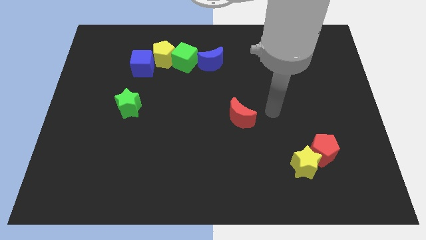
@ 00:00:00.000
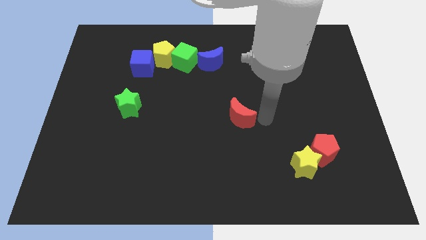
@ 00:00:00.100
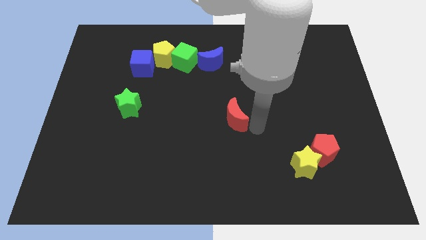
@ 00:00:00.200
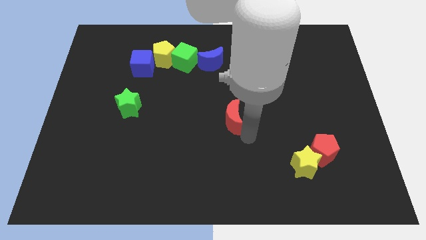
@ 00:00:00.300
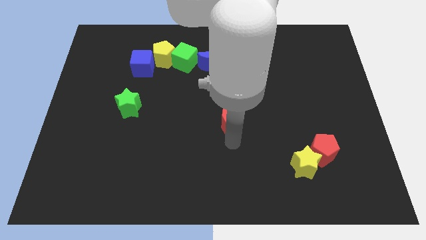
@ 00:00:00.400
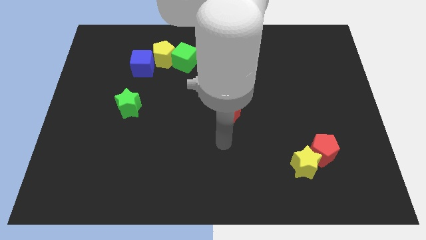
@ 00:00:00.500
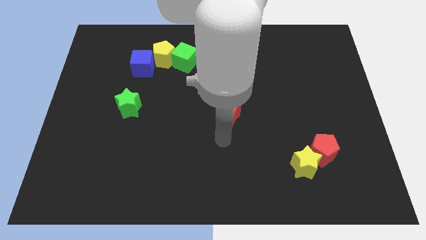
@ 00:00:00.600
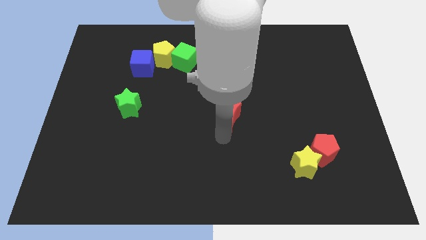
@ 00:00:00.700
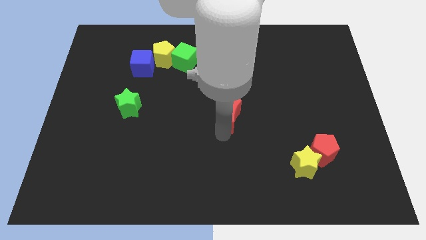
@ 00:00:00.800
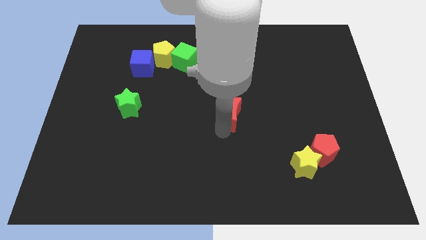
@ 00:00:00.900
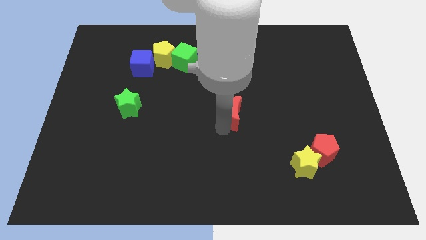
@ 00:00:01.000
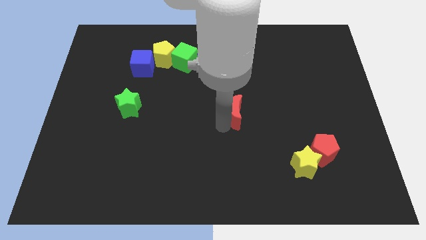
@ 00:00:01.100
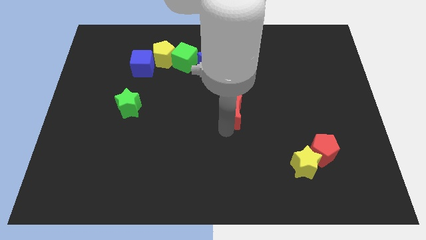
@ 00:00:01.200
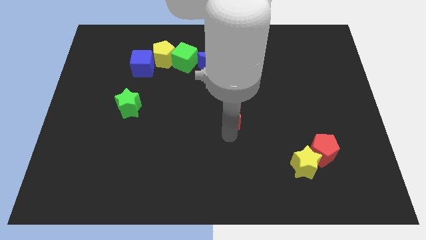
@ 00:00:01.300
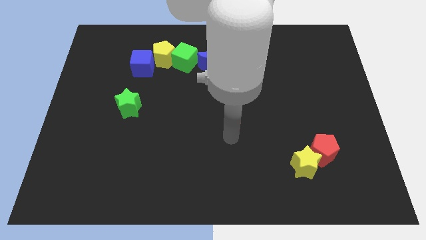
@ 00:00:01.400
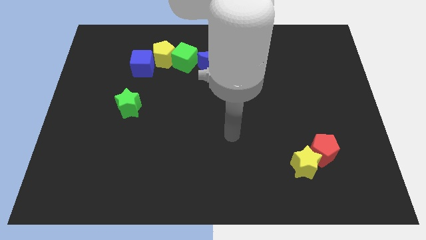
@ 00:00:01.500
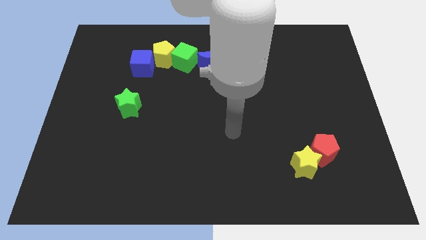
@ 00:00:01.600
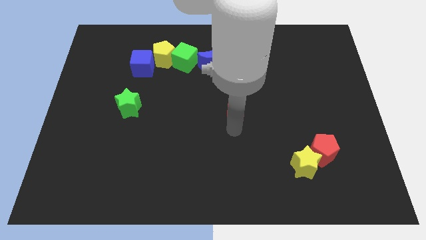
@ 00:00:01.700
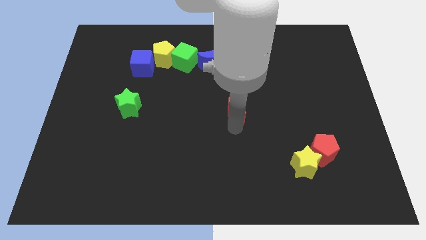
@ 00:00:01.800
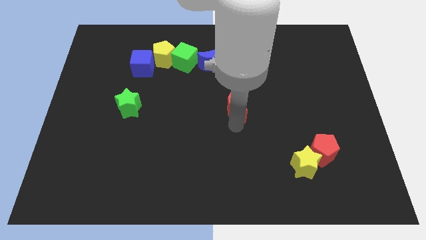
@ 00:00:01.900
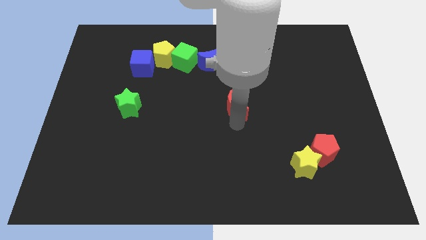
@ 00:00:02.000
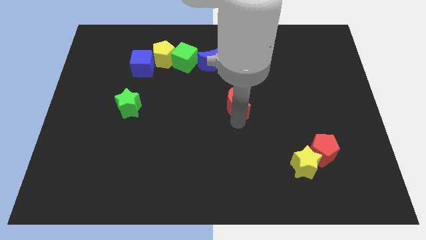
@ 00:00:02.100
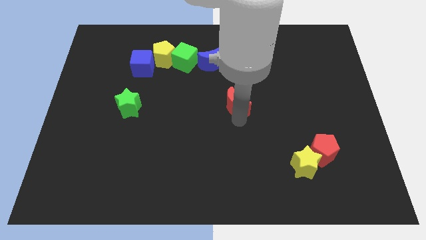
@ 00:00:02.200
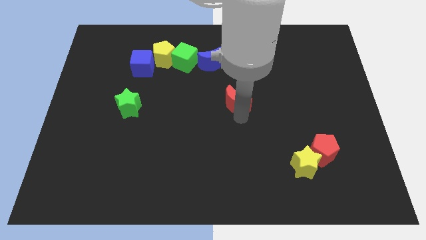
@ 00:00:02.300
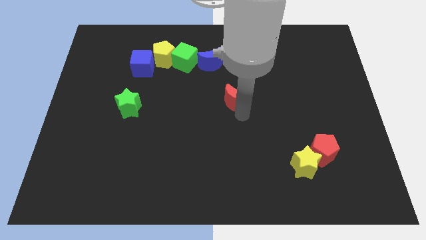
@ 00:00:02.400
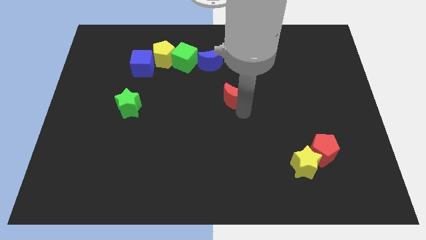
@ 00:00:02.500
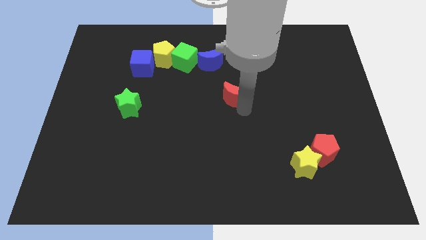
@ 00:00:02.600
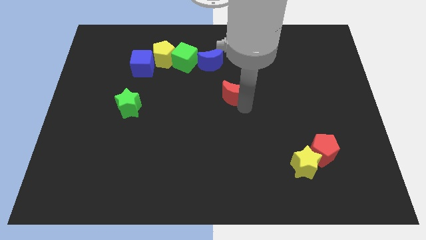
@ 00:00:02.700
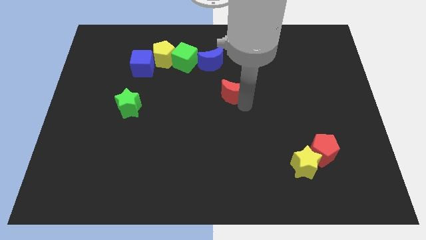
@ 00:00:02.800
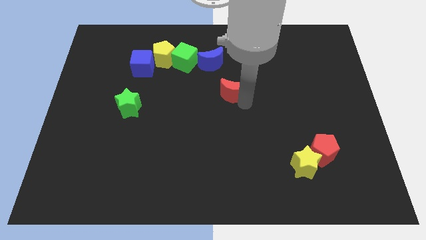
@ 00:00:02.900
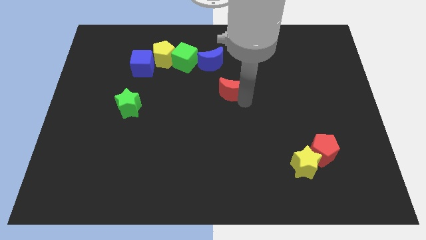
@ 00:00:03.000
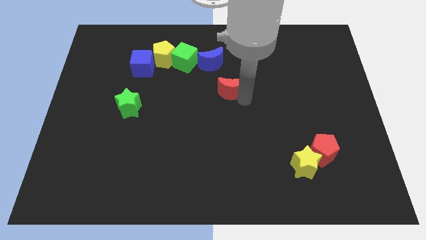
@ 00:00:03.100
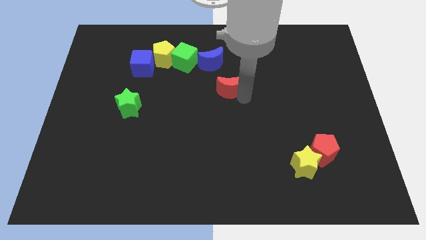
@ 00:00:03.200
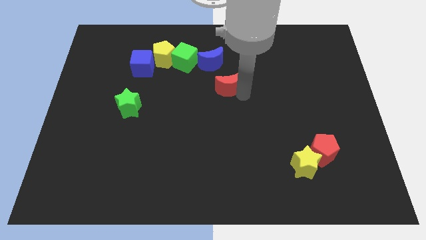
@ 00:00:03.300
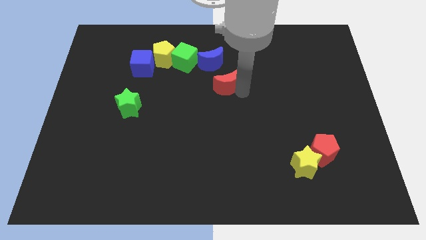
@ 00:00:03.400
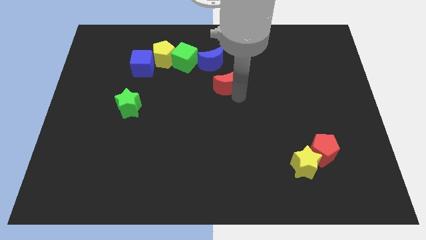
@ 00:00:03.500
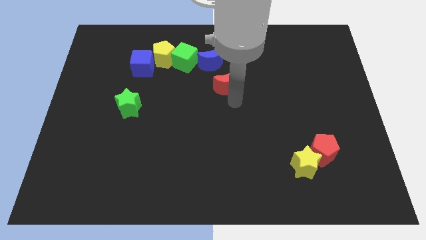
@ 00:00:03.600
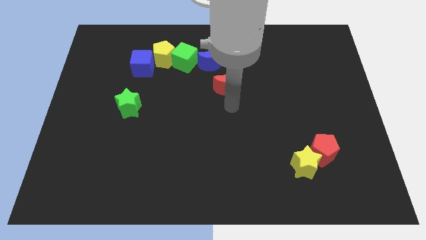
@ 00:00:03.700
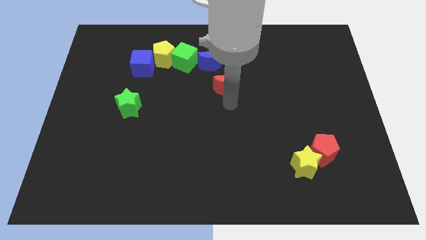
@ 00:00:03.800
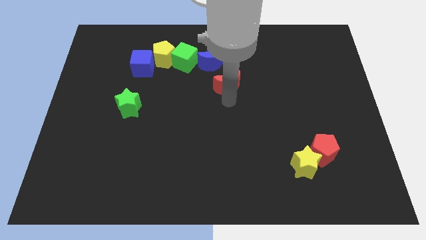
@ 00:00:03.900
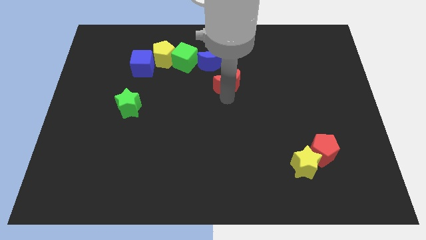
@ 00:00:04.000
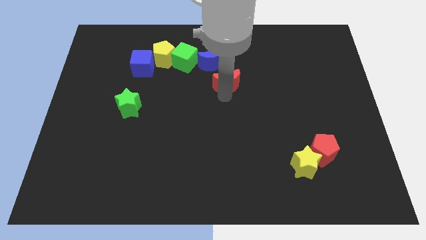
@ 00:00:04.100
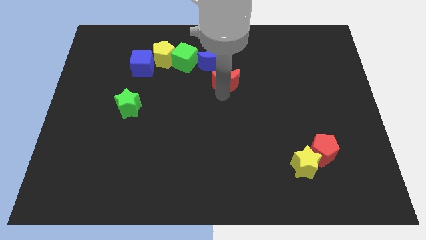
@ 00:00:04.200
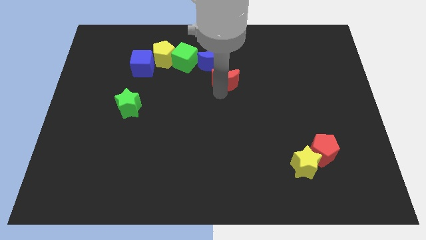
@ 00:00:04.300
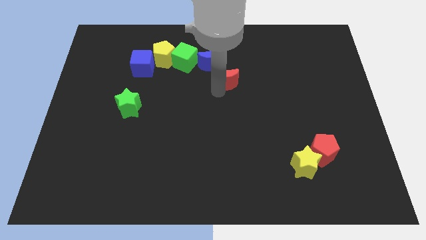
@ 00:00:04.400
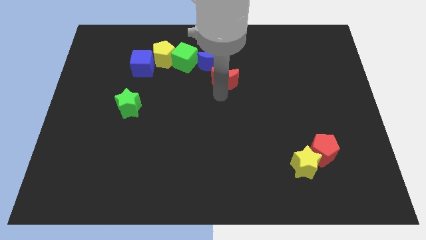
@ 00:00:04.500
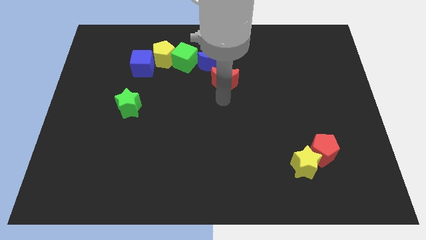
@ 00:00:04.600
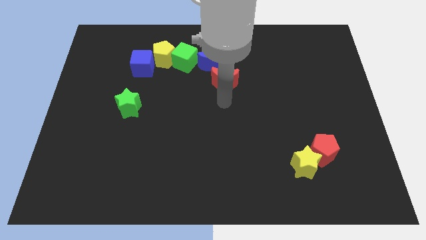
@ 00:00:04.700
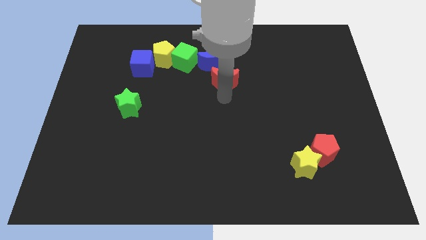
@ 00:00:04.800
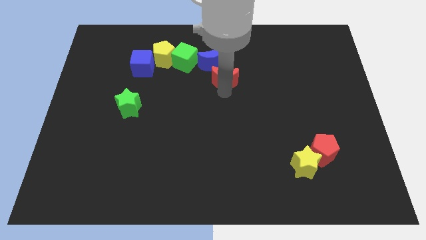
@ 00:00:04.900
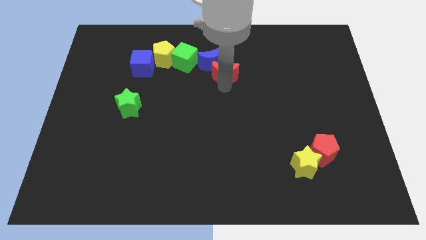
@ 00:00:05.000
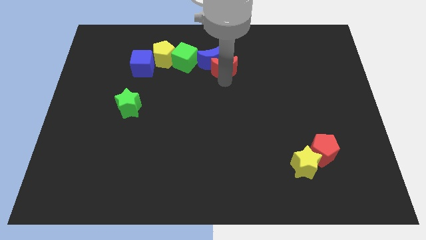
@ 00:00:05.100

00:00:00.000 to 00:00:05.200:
move the red moon just right of the green cube
